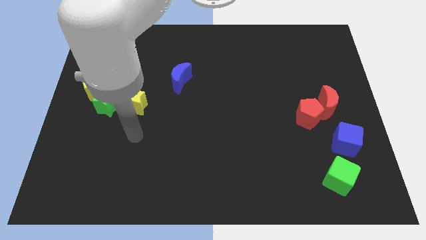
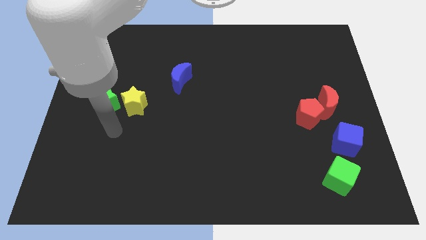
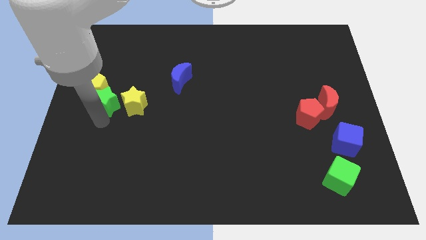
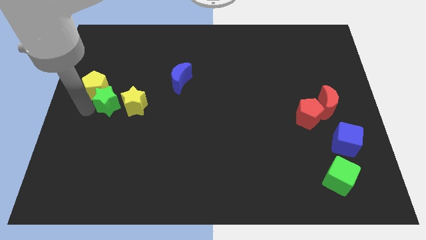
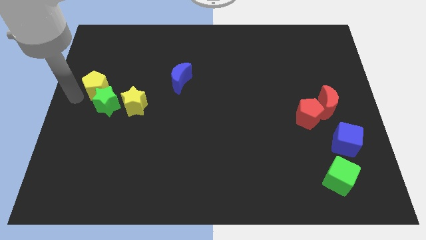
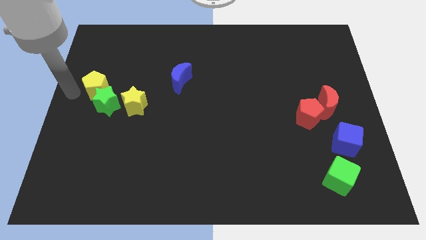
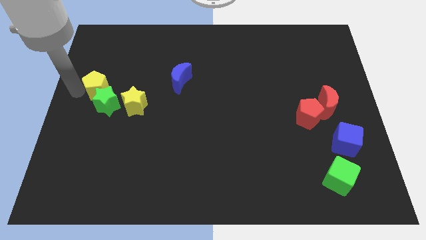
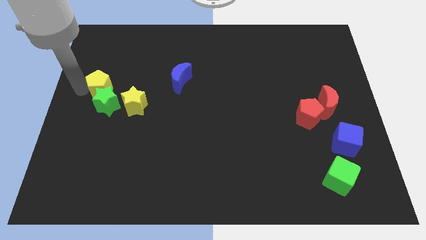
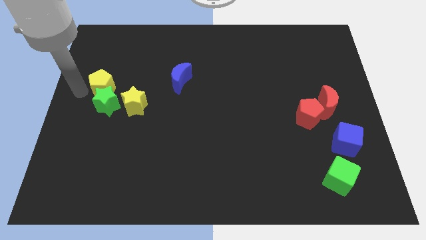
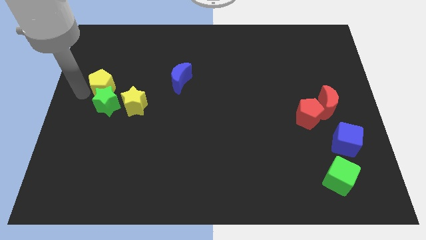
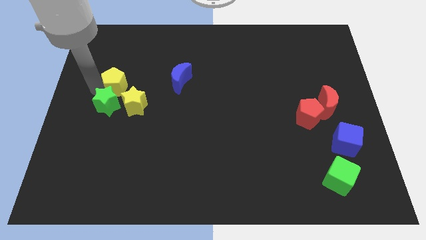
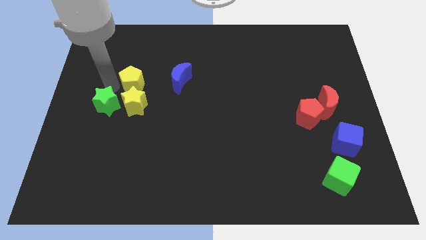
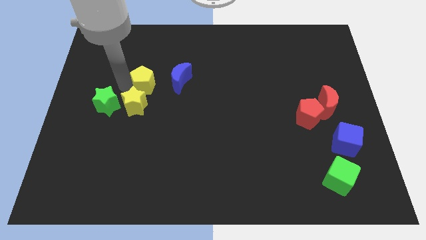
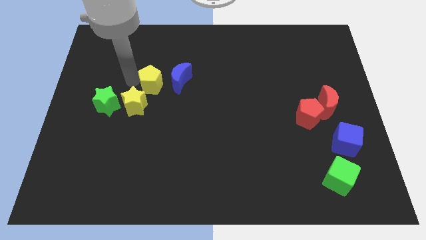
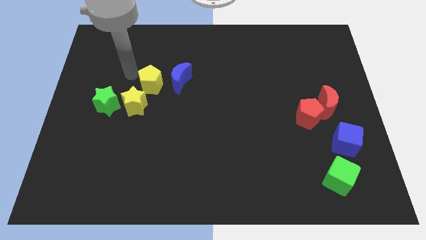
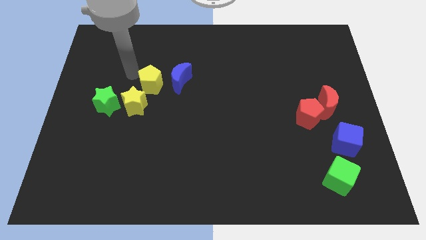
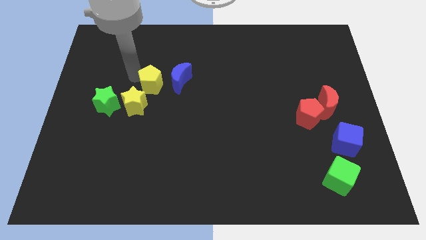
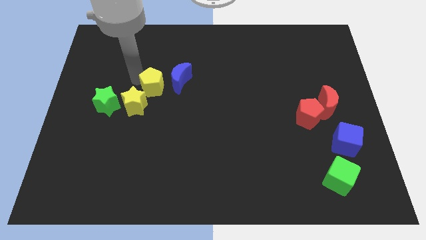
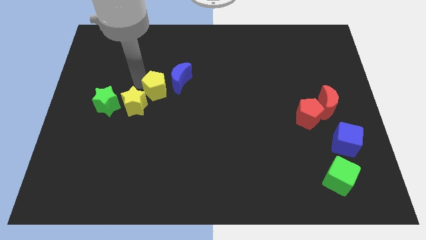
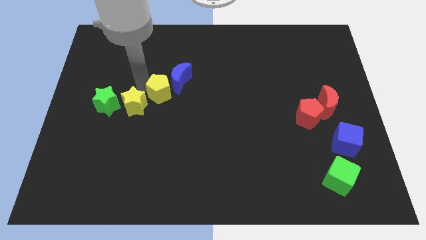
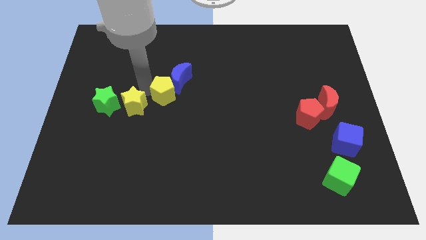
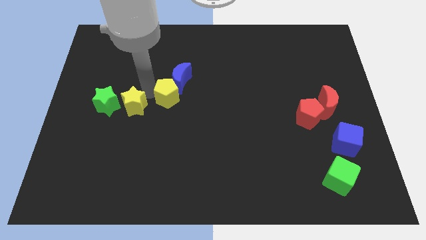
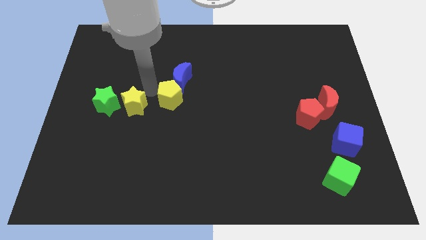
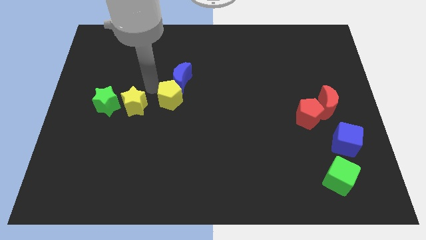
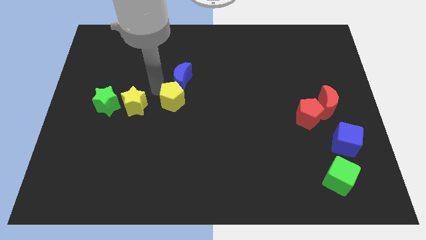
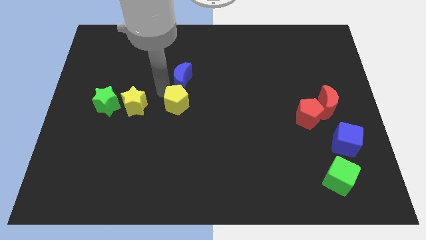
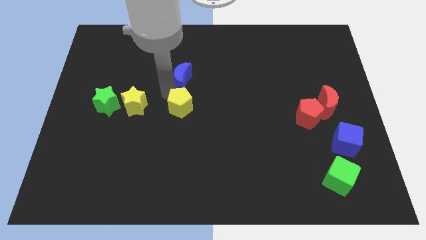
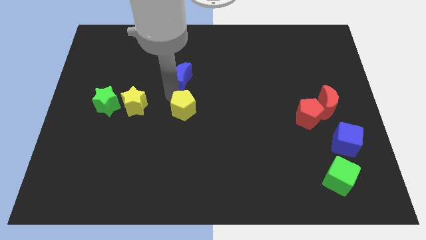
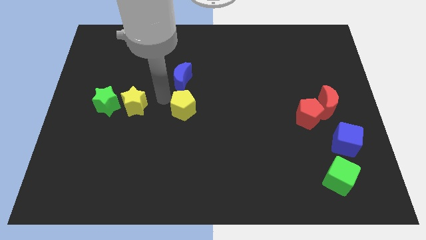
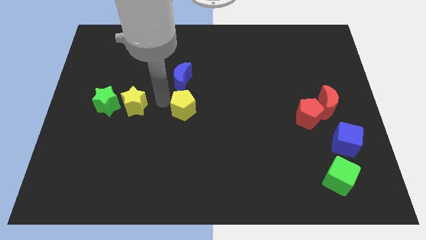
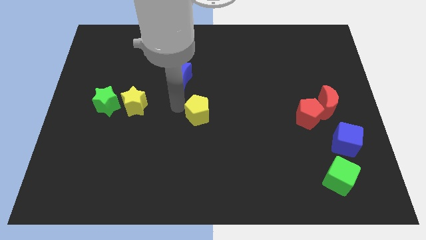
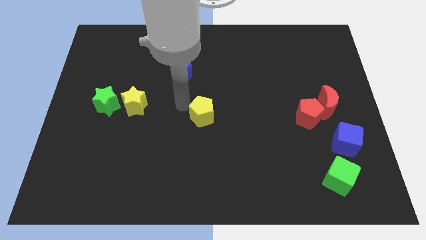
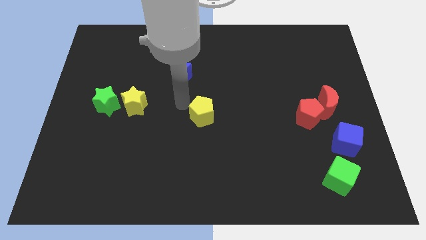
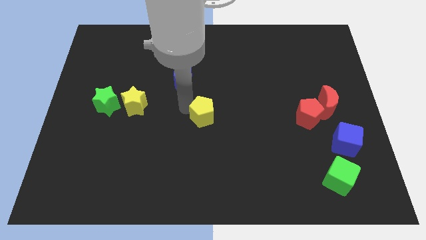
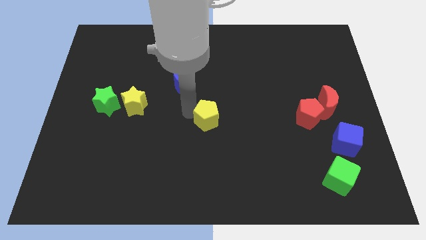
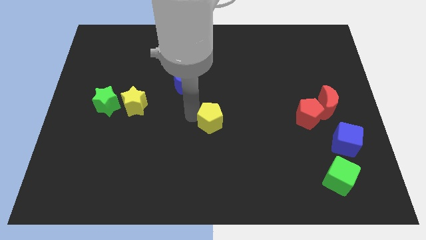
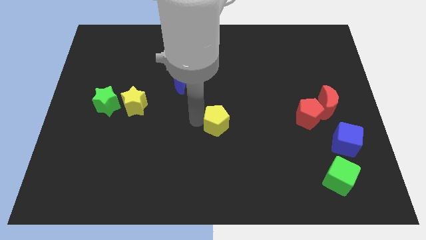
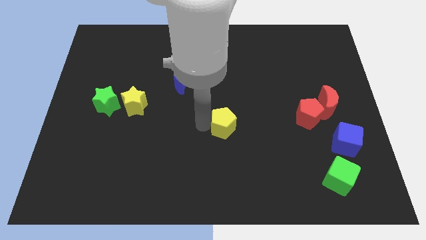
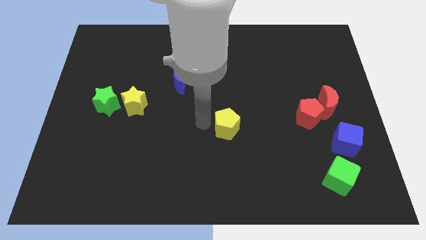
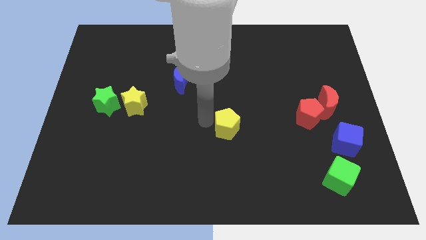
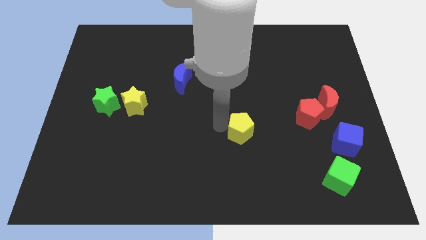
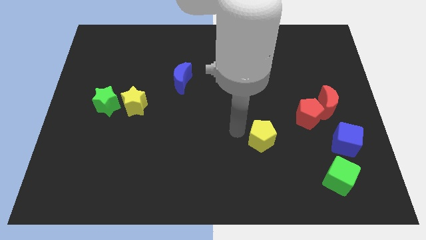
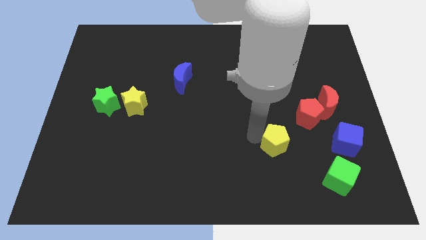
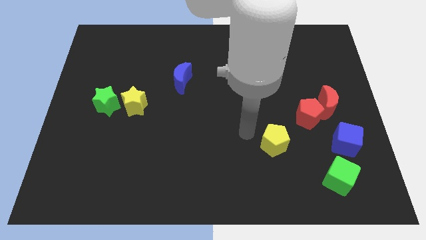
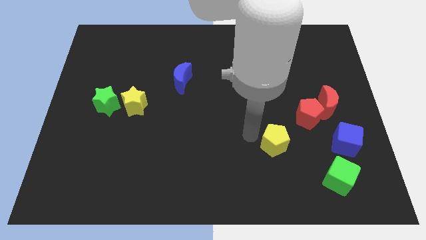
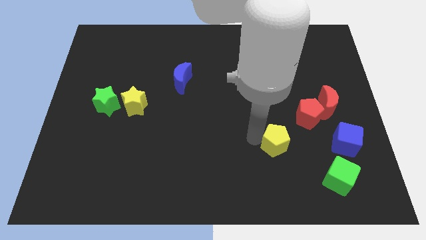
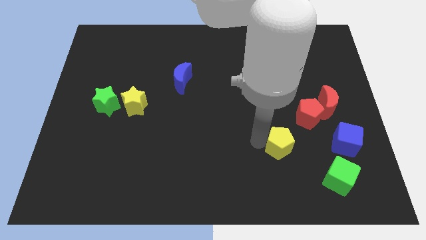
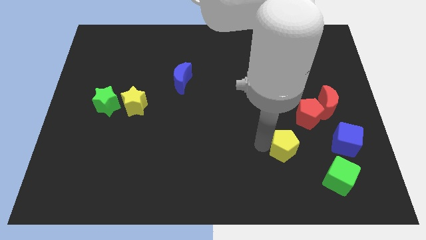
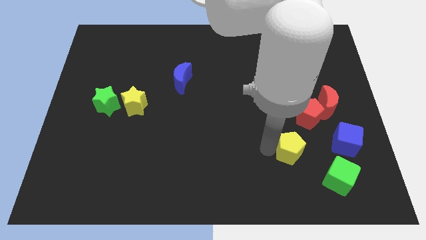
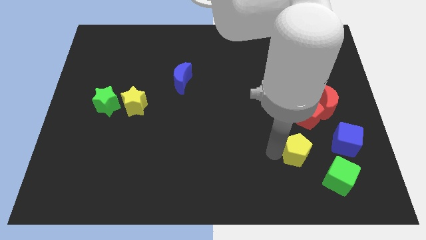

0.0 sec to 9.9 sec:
push the yellow pentagon to the bottom side of the red pentagon

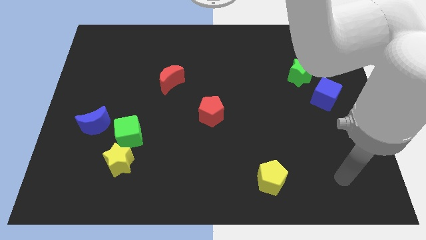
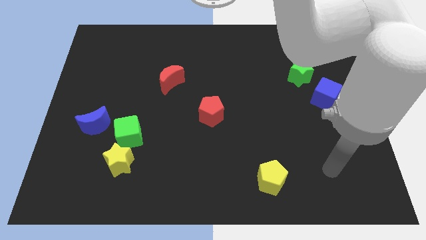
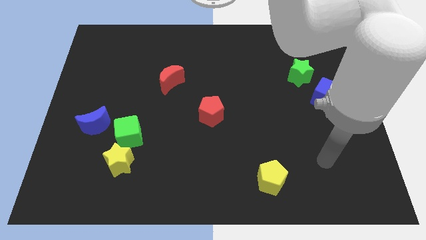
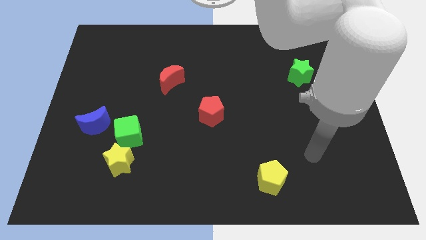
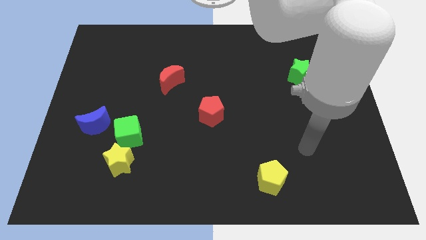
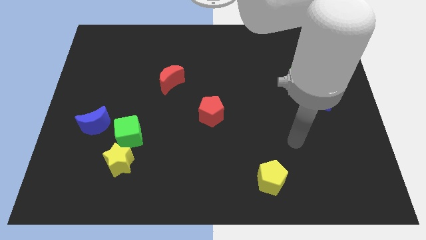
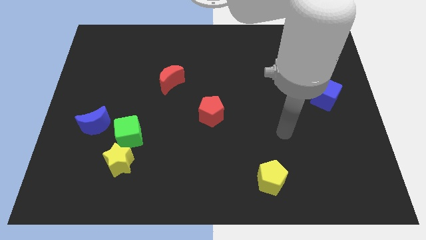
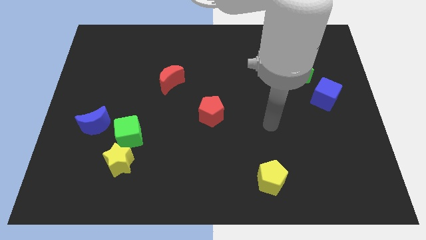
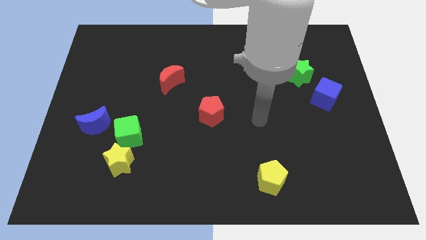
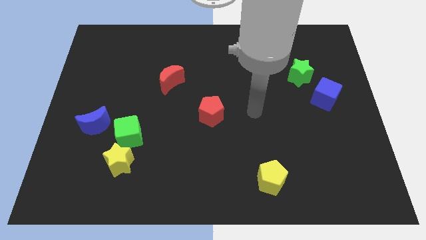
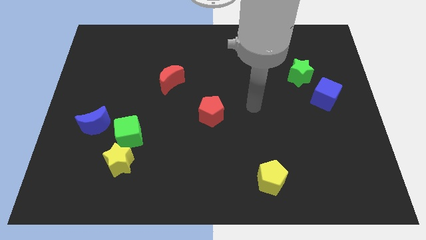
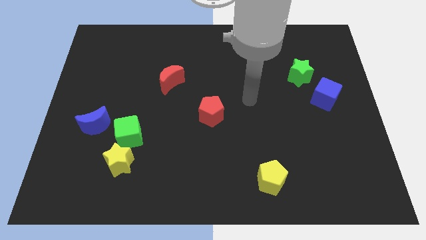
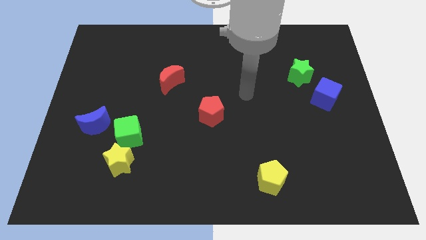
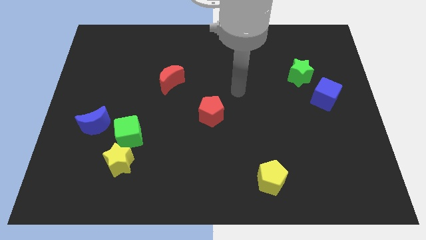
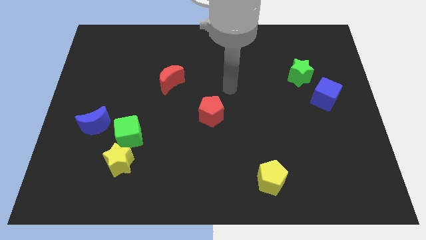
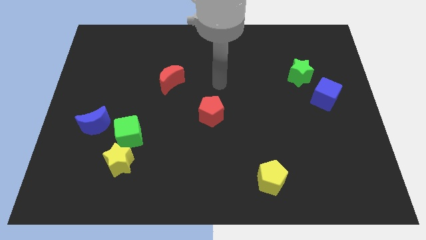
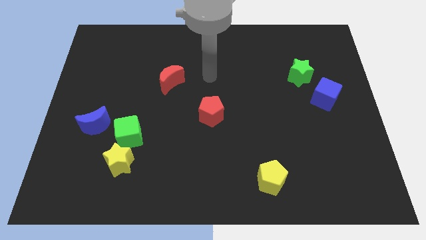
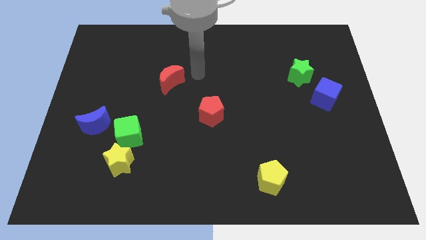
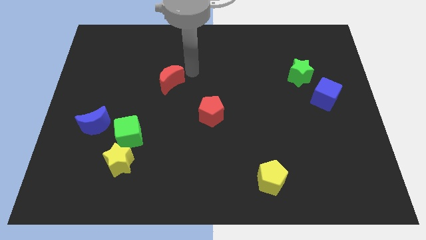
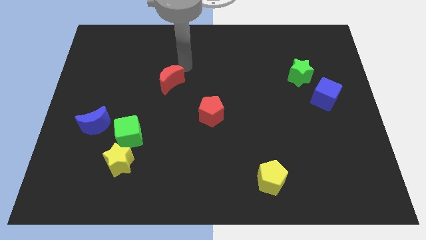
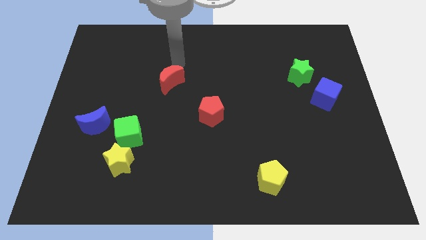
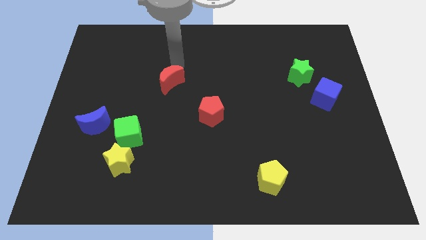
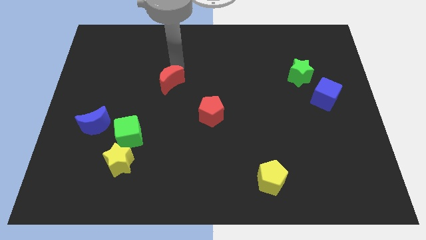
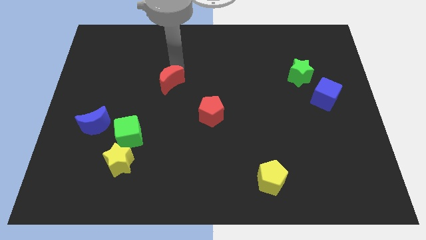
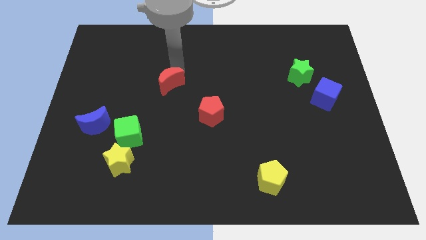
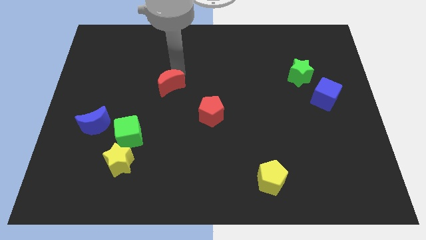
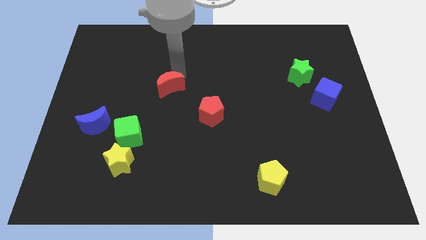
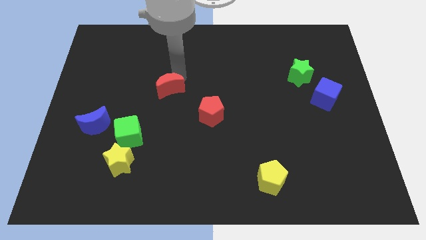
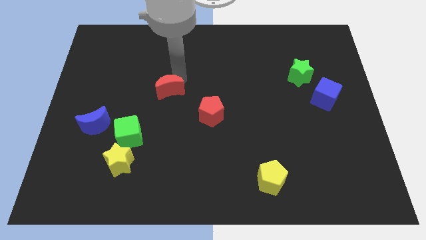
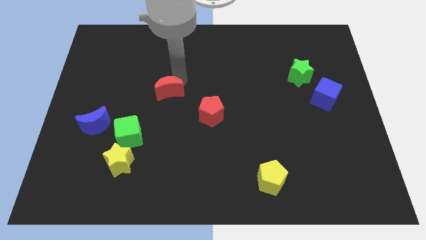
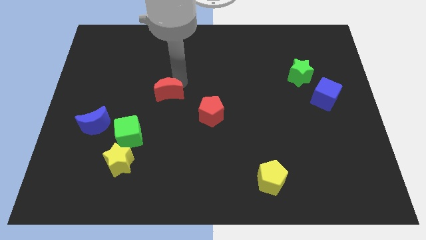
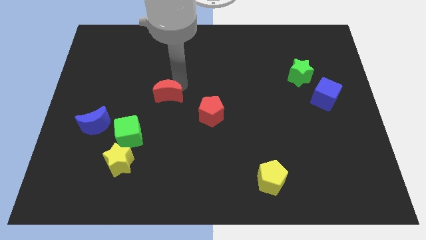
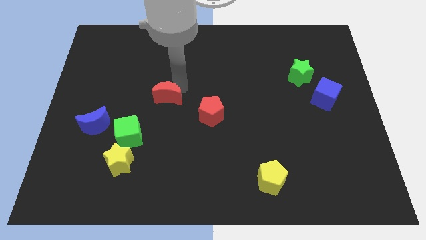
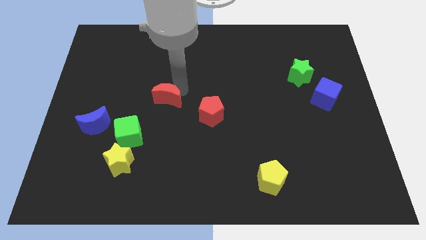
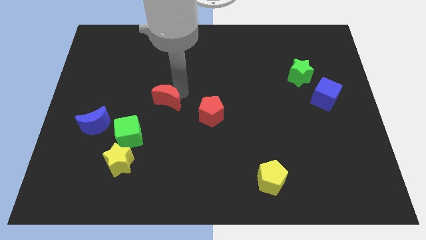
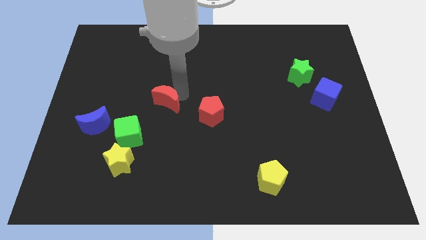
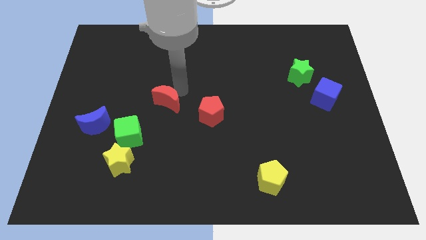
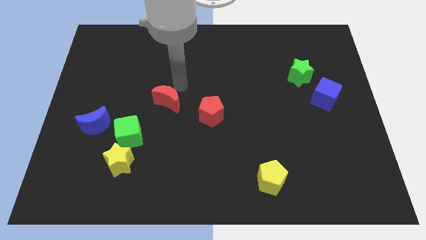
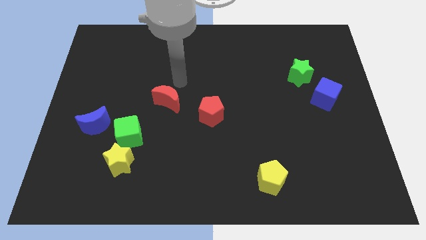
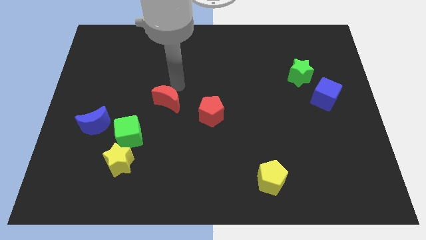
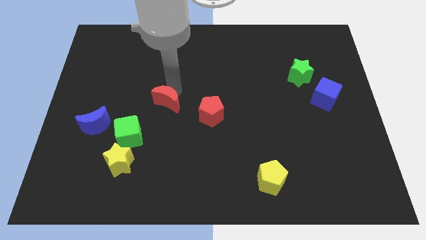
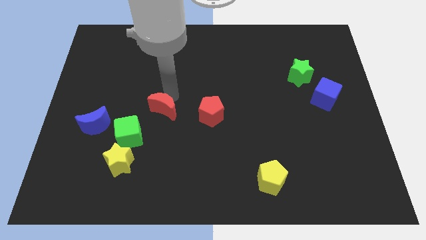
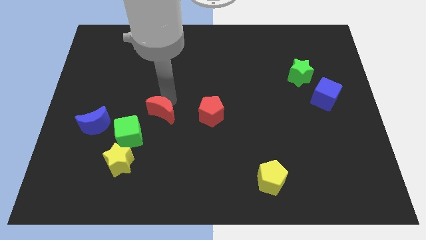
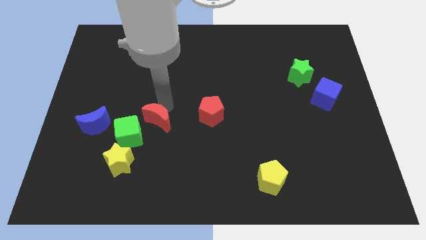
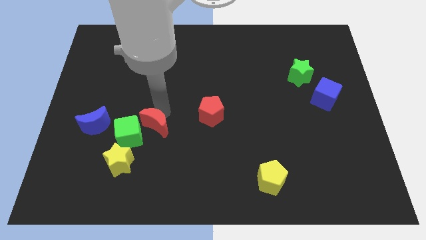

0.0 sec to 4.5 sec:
push the red moon diagonally up and to the right of the yellow star
